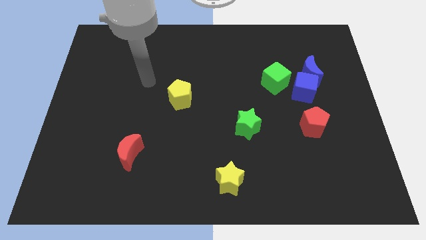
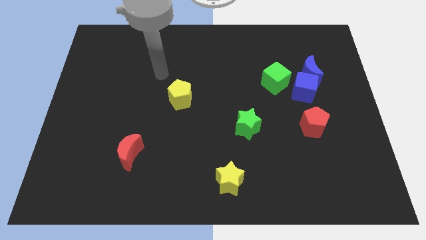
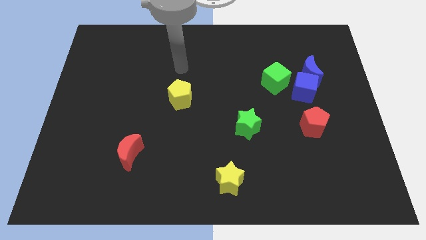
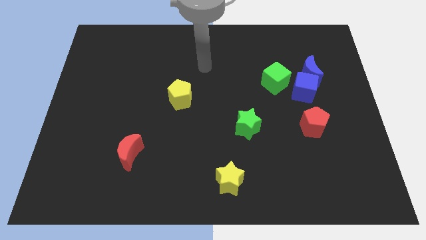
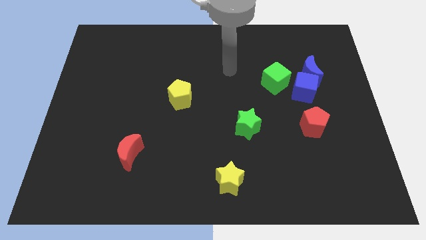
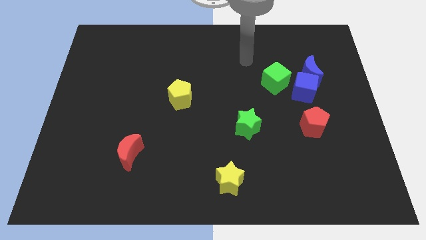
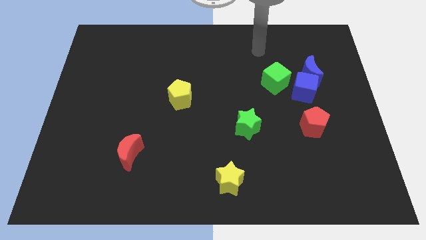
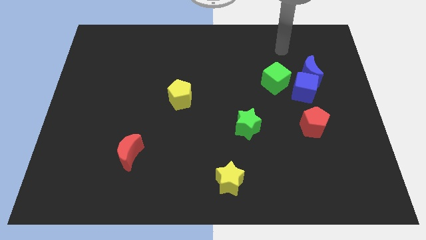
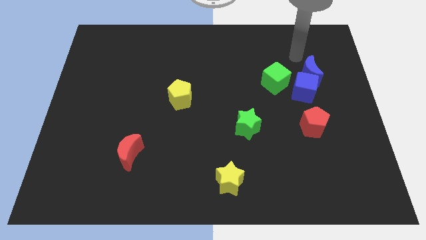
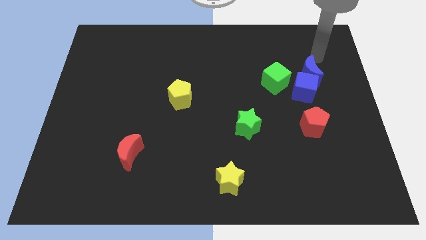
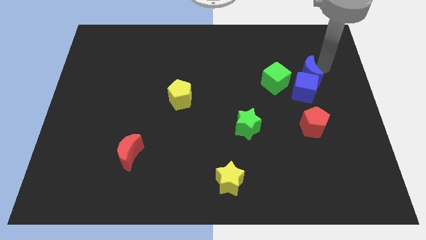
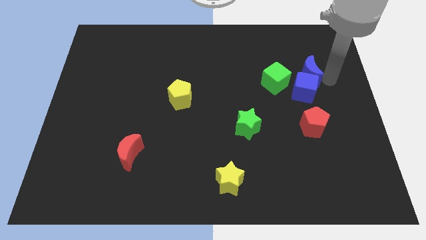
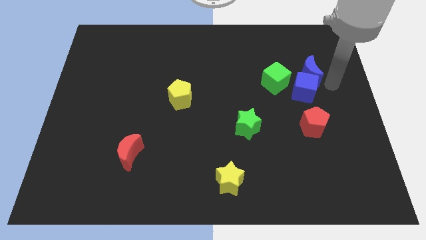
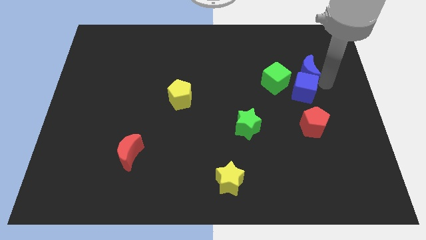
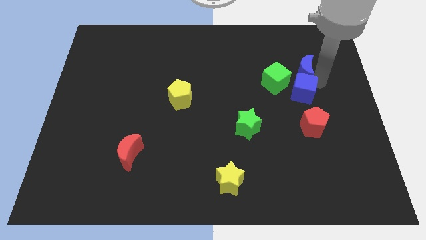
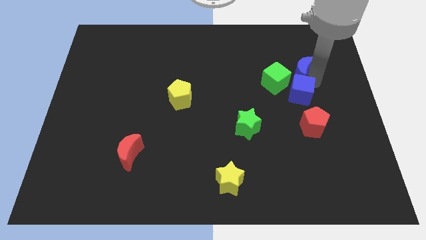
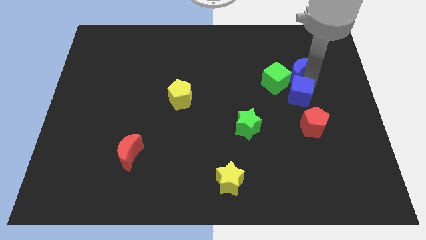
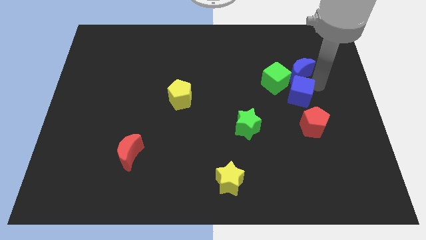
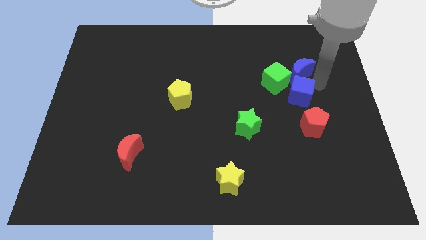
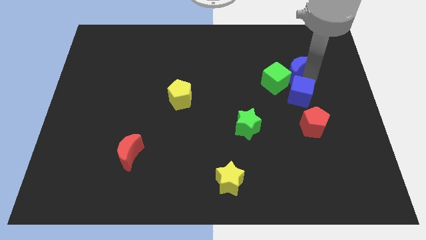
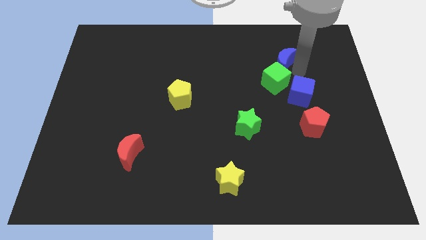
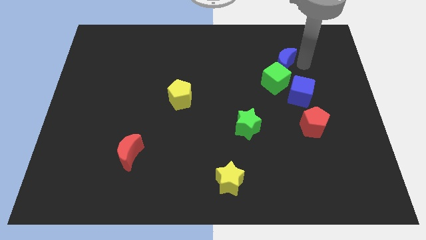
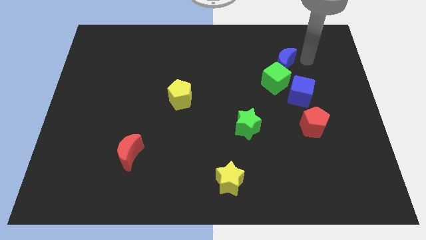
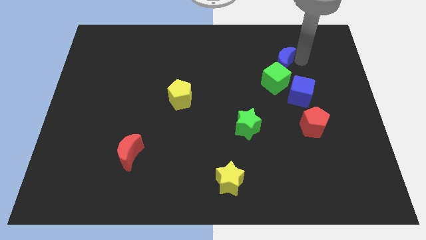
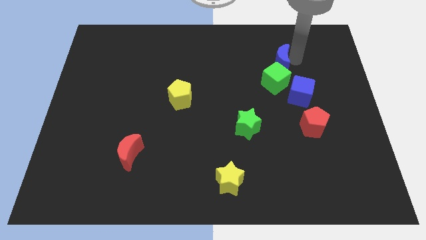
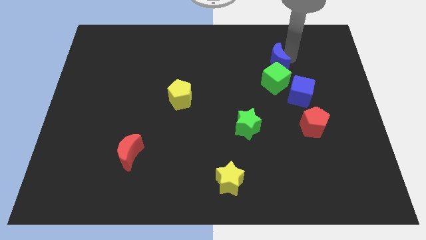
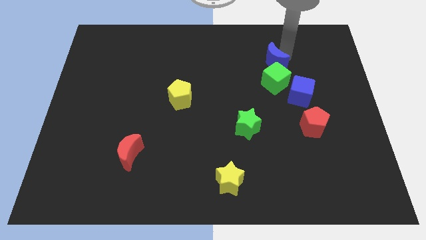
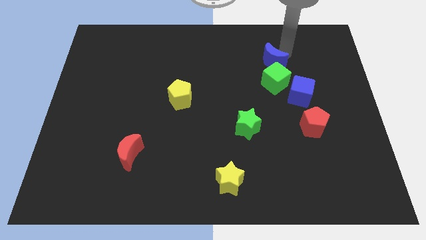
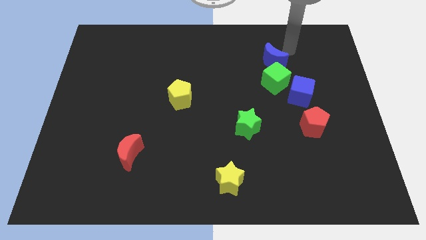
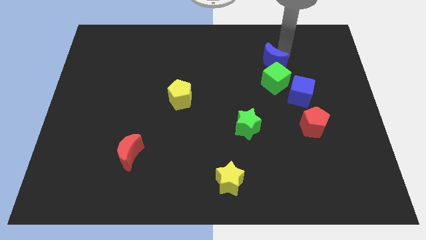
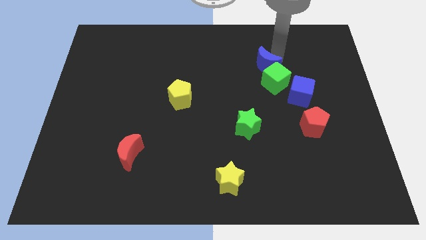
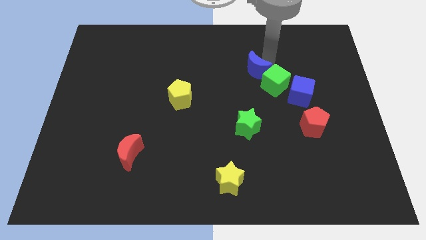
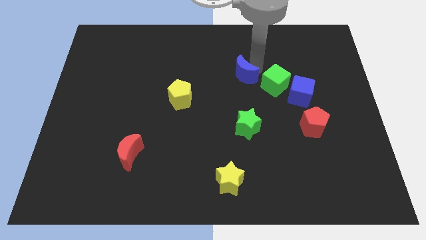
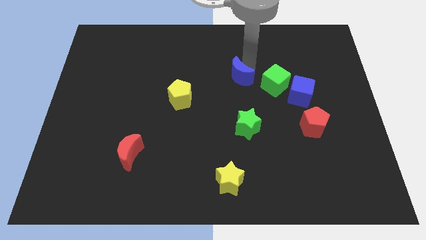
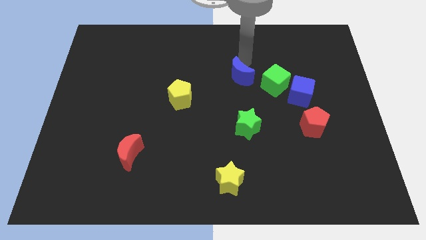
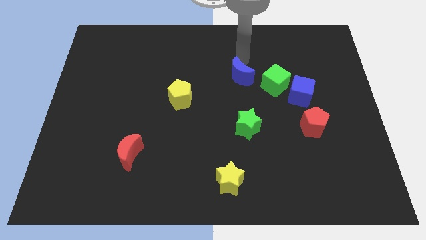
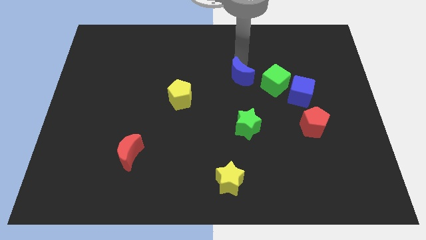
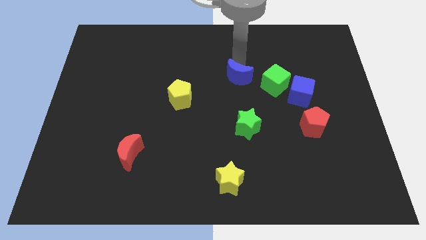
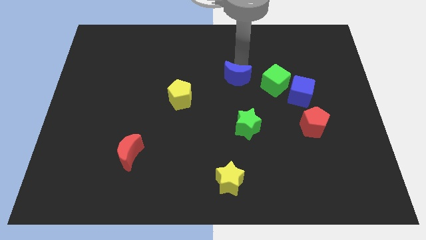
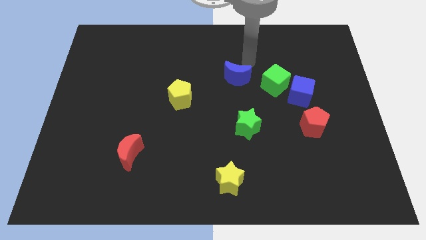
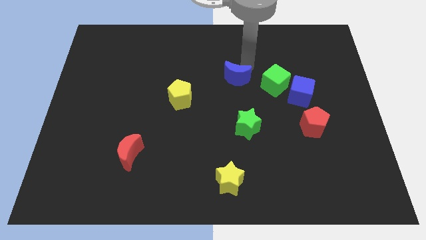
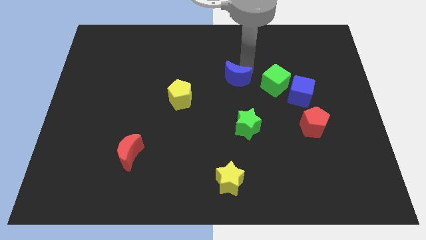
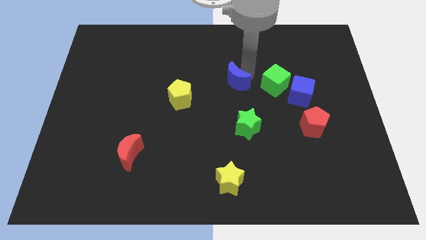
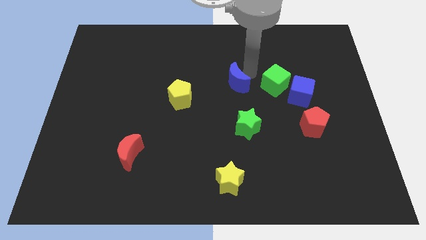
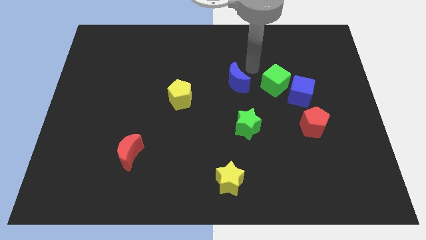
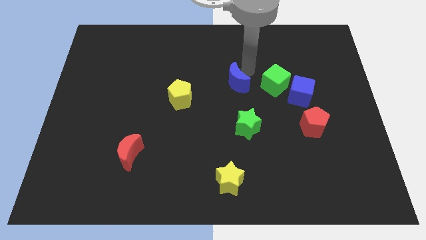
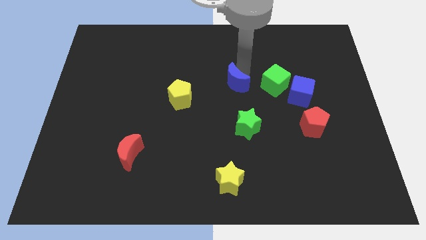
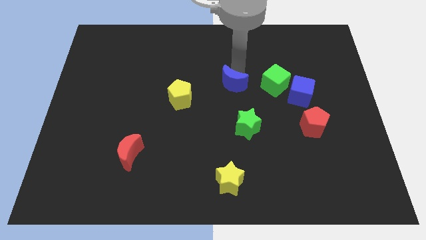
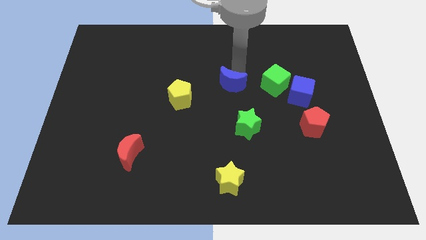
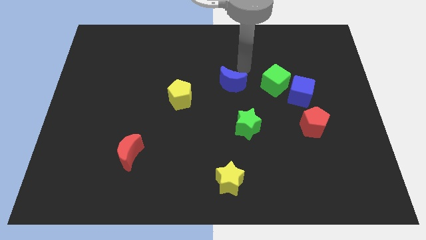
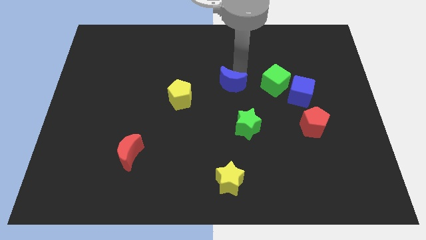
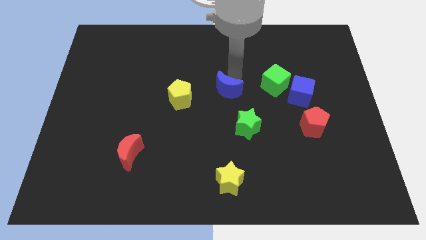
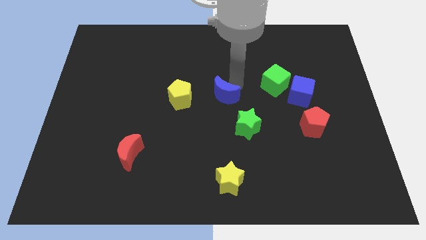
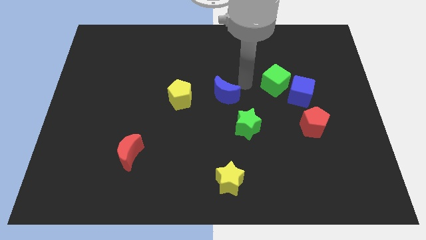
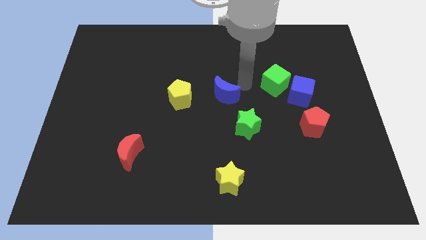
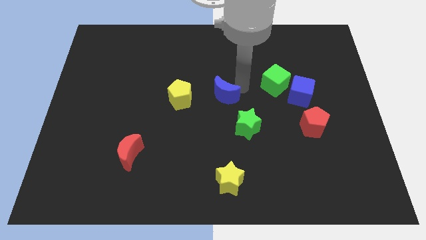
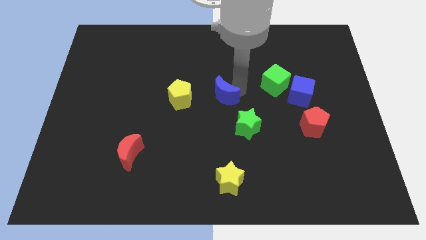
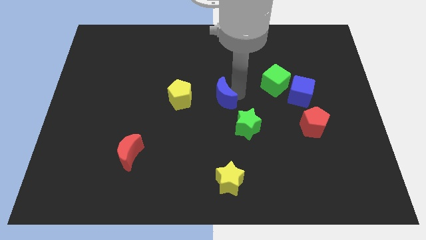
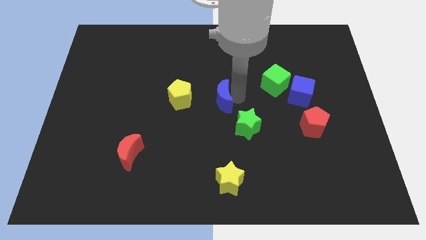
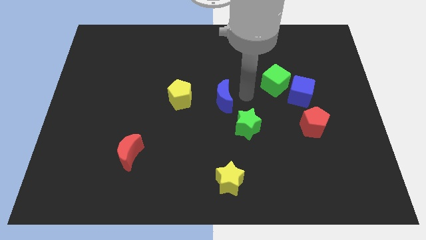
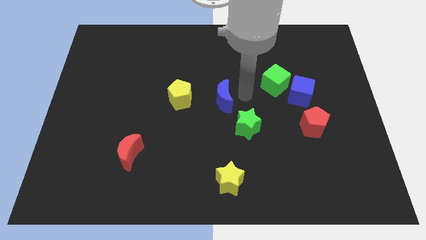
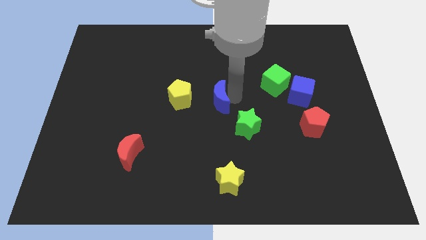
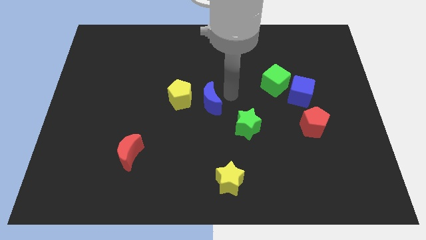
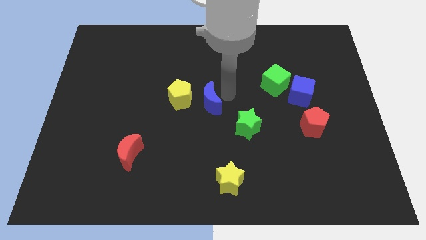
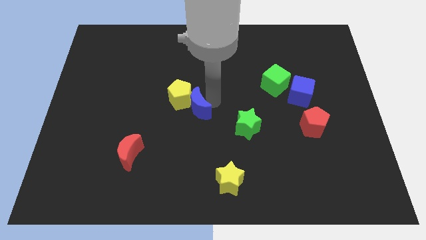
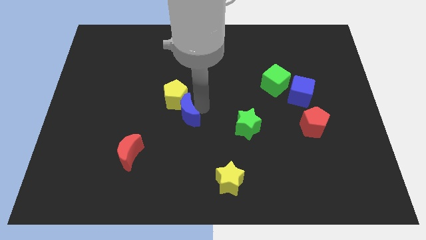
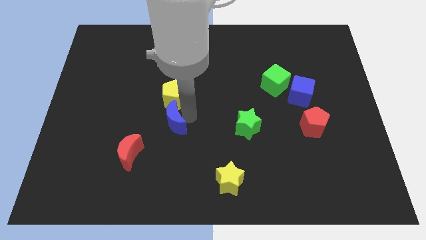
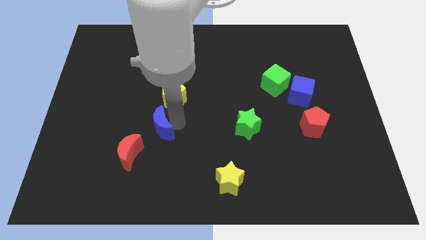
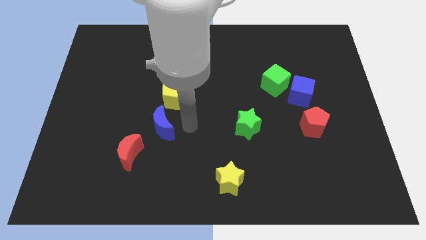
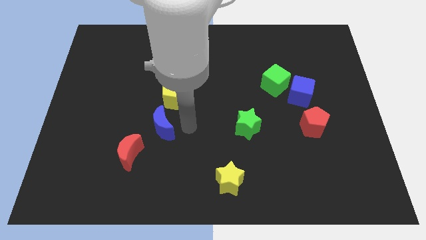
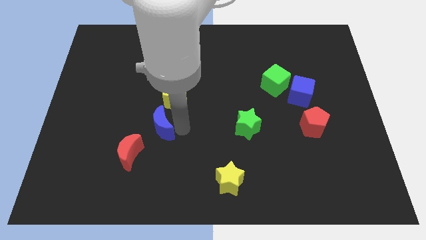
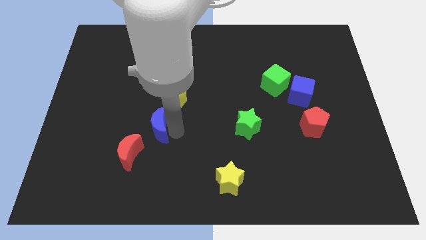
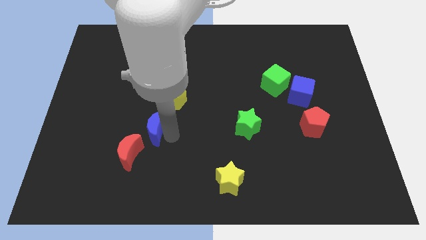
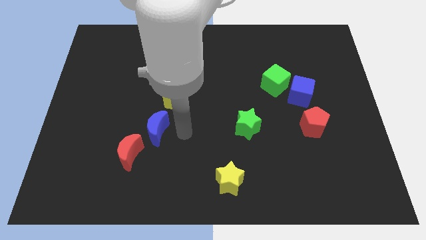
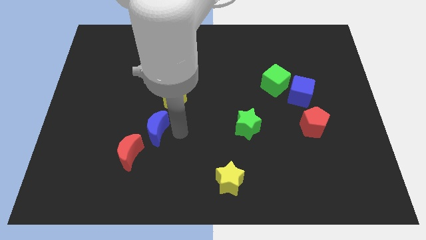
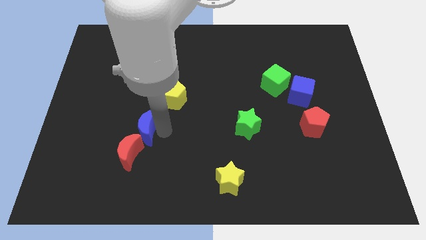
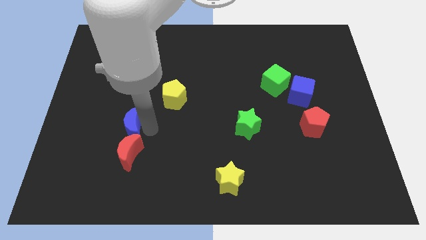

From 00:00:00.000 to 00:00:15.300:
slide the blue moon to the top left side of the red moon
